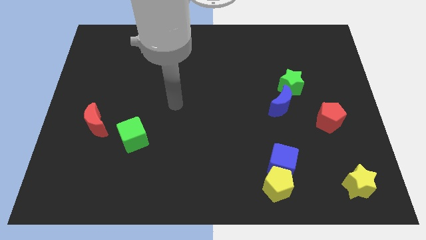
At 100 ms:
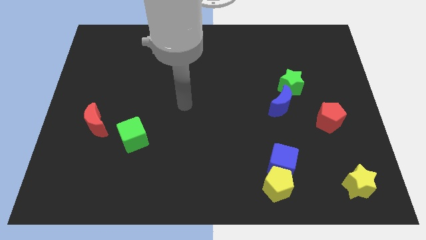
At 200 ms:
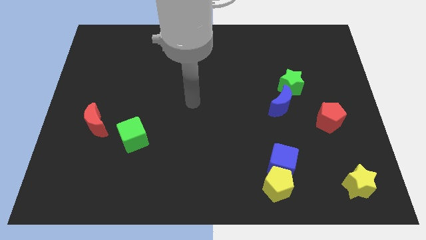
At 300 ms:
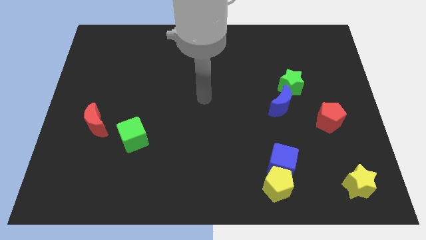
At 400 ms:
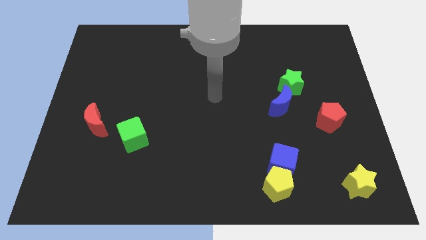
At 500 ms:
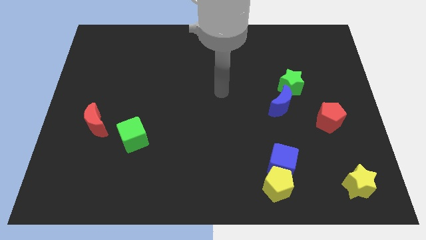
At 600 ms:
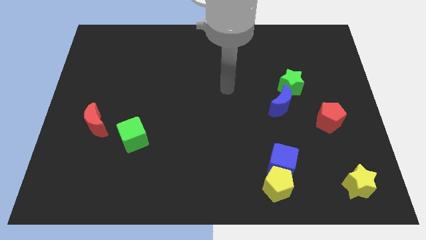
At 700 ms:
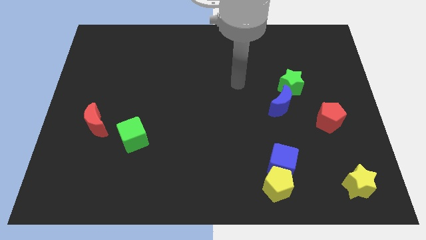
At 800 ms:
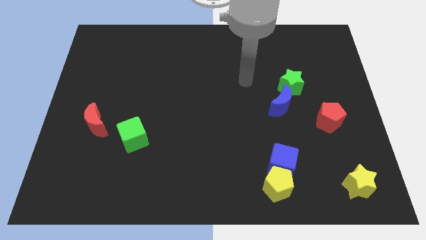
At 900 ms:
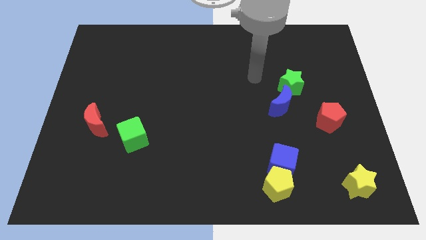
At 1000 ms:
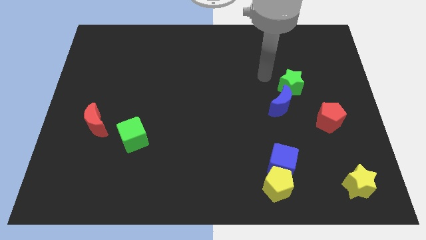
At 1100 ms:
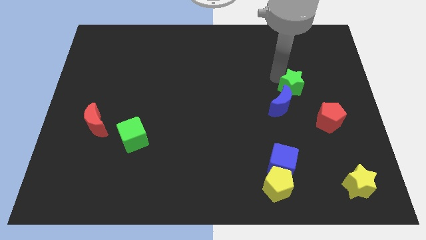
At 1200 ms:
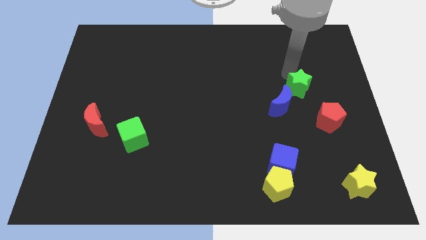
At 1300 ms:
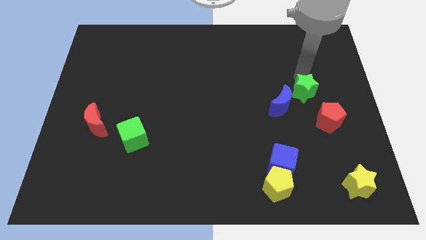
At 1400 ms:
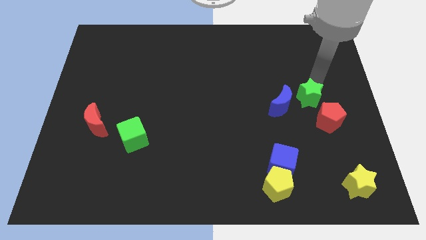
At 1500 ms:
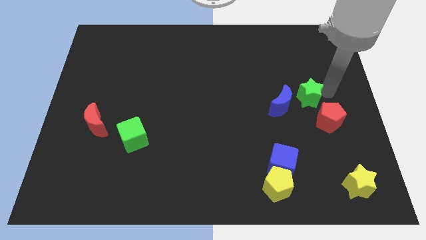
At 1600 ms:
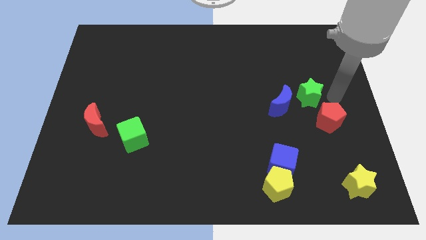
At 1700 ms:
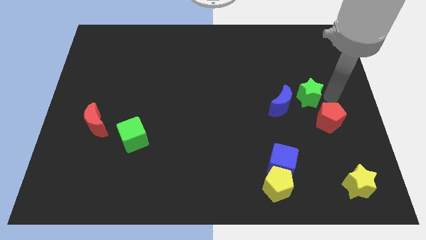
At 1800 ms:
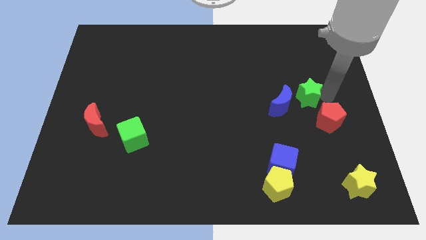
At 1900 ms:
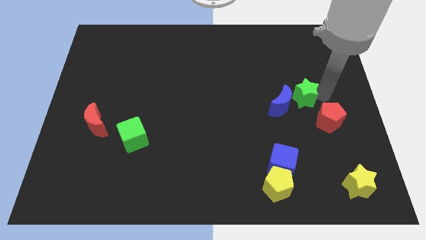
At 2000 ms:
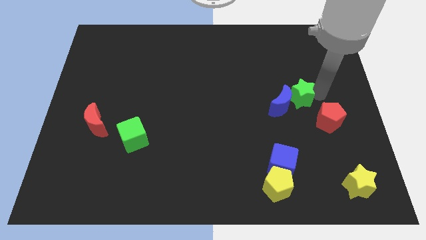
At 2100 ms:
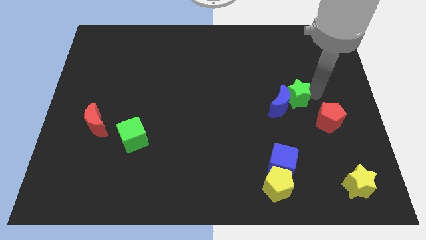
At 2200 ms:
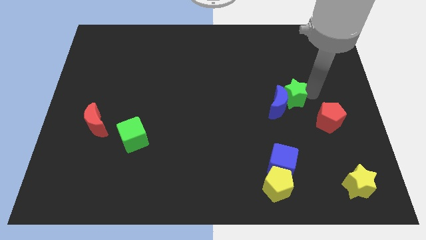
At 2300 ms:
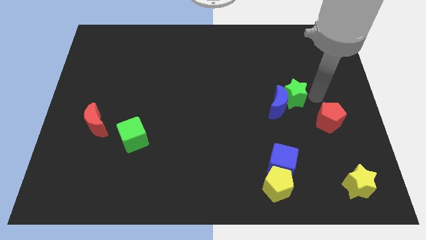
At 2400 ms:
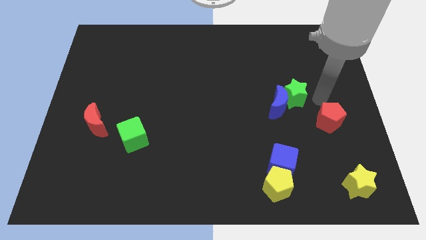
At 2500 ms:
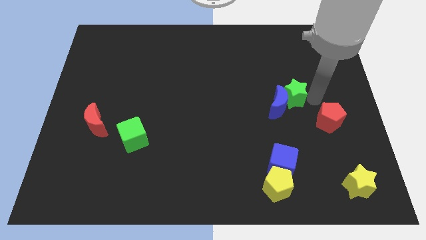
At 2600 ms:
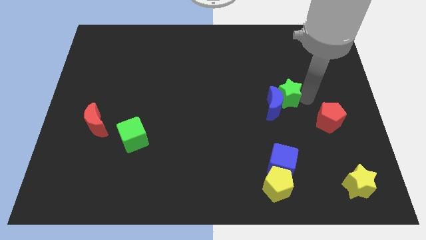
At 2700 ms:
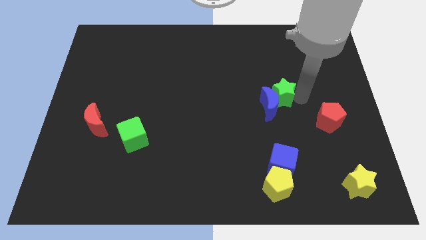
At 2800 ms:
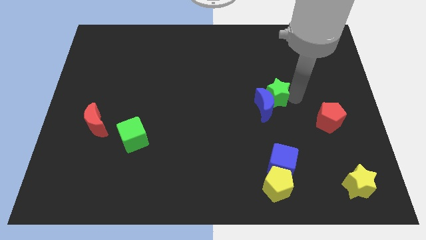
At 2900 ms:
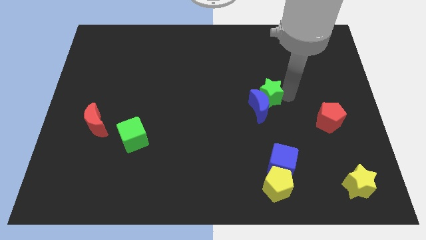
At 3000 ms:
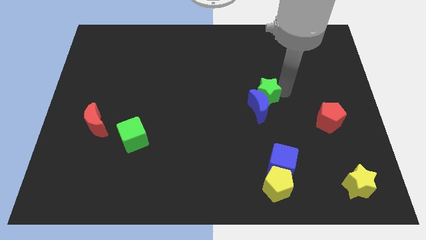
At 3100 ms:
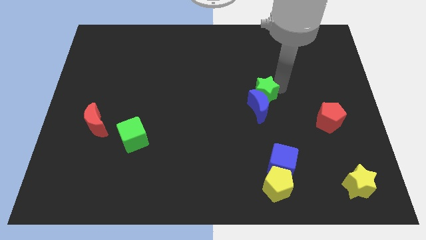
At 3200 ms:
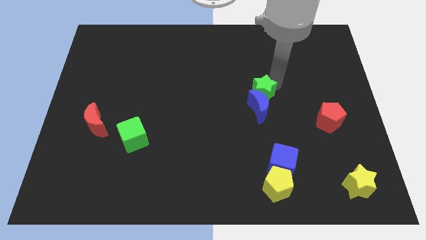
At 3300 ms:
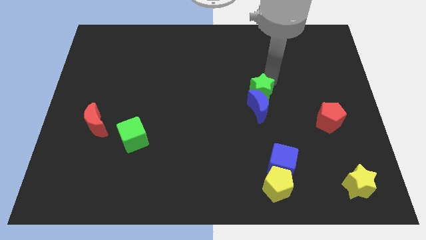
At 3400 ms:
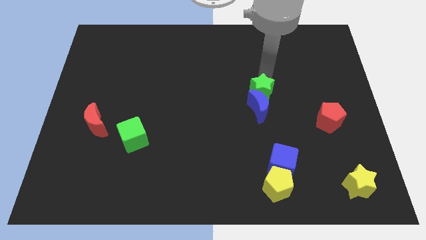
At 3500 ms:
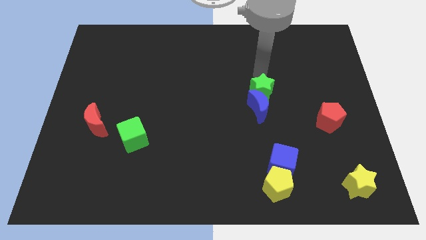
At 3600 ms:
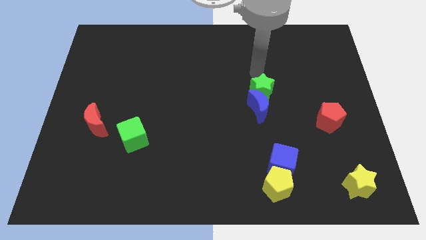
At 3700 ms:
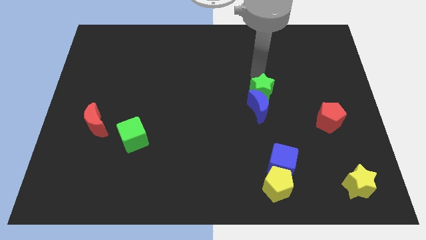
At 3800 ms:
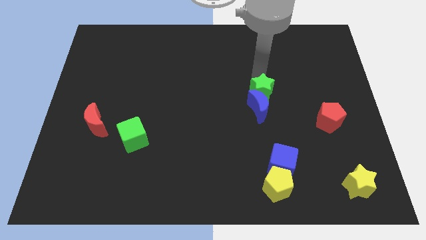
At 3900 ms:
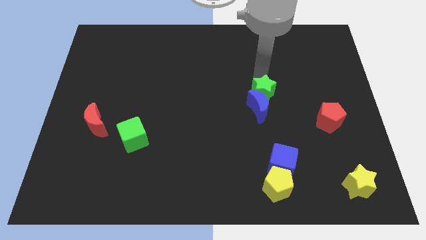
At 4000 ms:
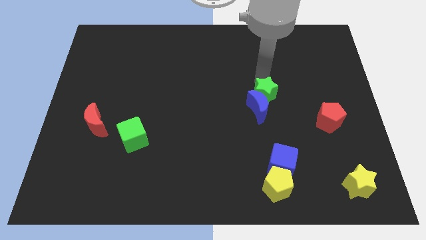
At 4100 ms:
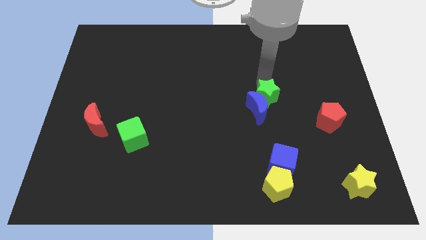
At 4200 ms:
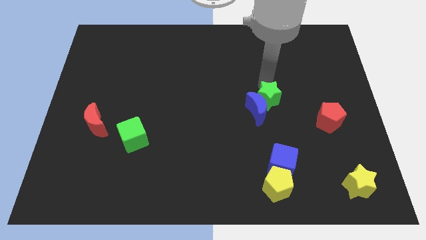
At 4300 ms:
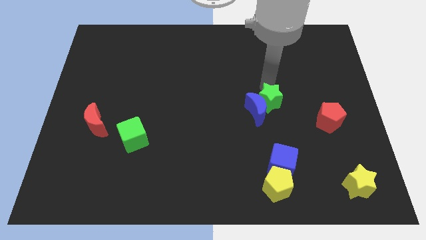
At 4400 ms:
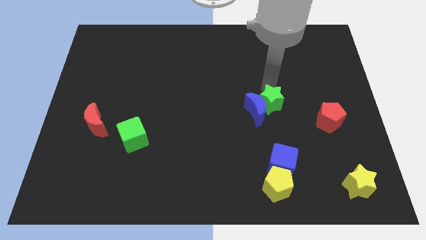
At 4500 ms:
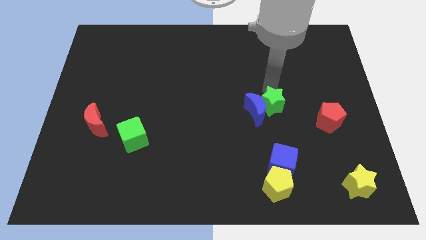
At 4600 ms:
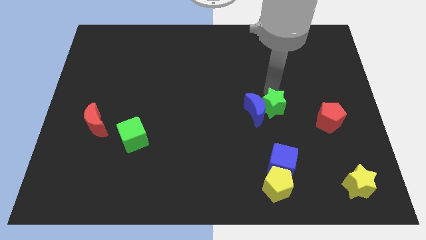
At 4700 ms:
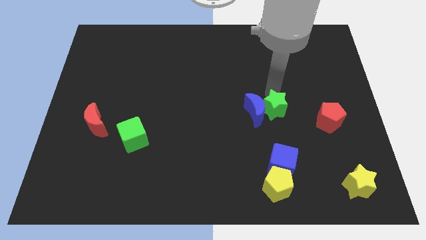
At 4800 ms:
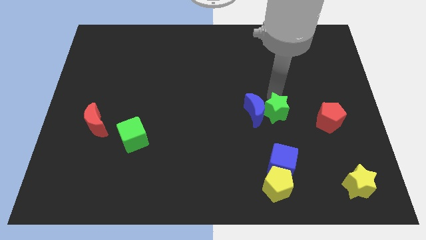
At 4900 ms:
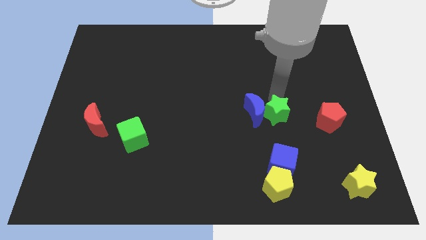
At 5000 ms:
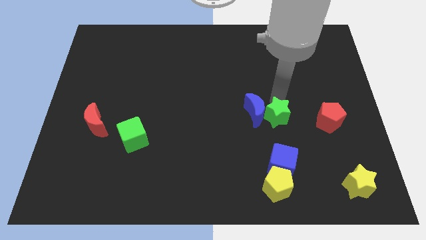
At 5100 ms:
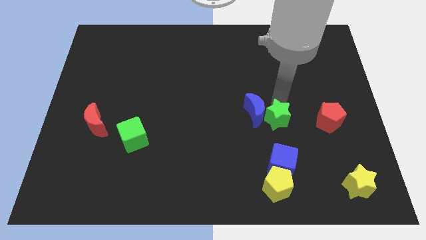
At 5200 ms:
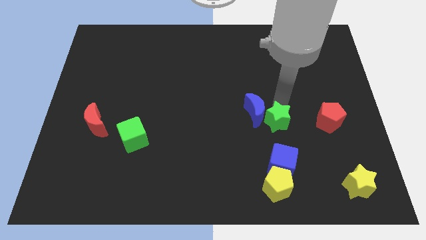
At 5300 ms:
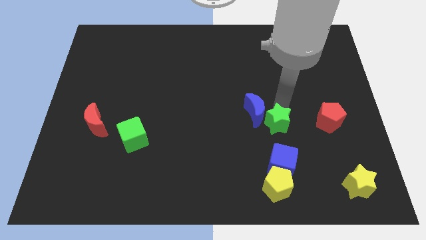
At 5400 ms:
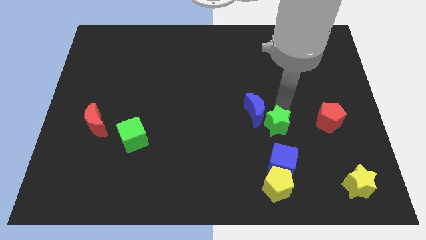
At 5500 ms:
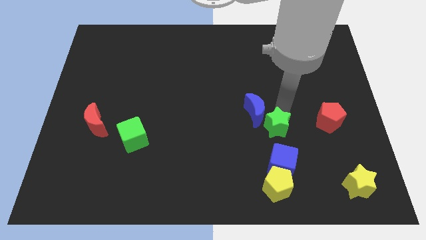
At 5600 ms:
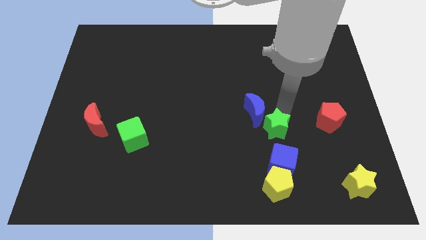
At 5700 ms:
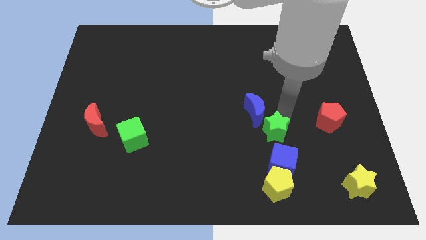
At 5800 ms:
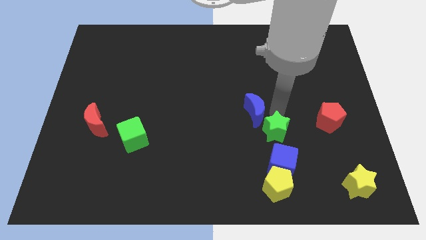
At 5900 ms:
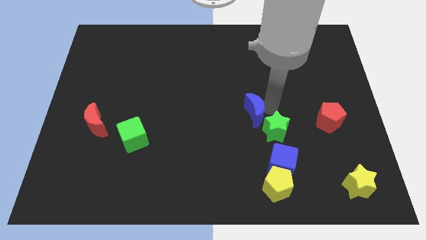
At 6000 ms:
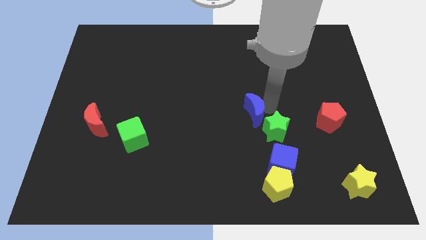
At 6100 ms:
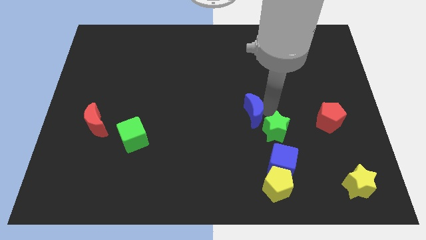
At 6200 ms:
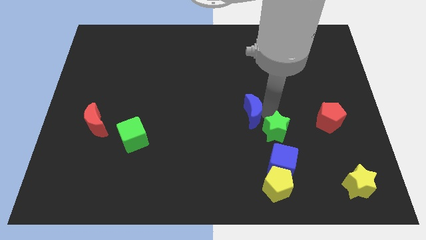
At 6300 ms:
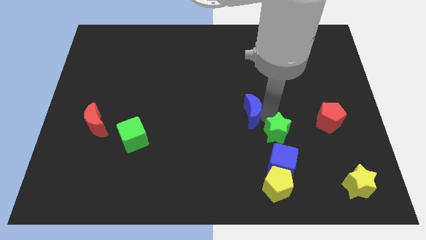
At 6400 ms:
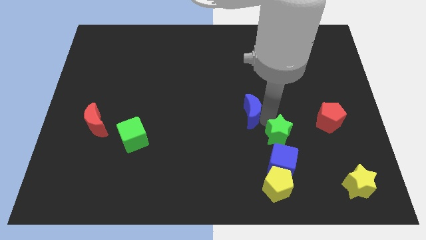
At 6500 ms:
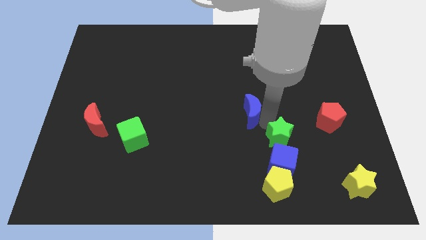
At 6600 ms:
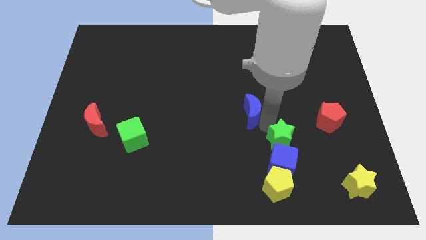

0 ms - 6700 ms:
slide the green star next to the blue cube

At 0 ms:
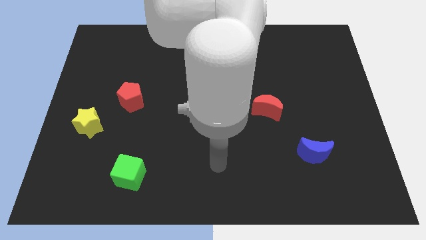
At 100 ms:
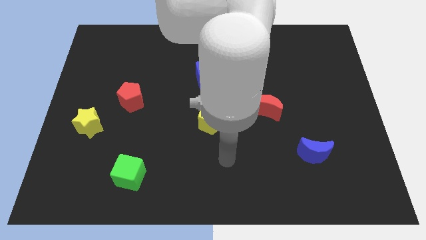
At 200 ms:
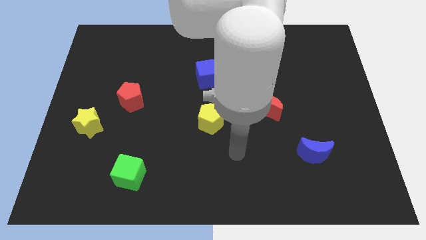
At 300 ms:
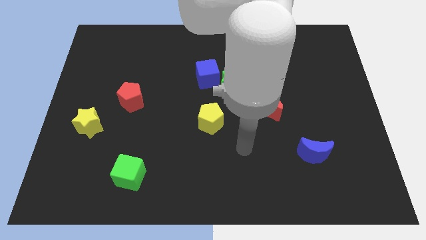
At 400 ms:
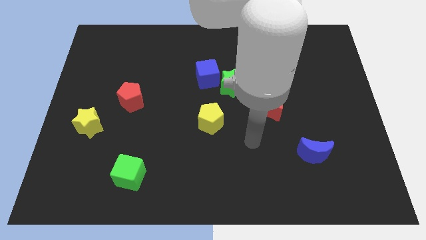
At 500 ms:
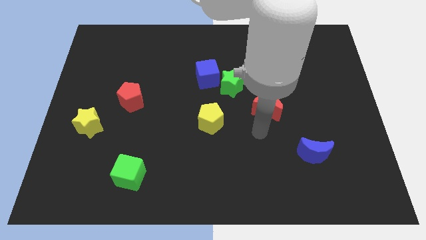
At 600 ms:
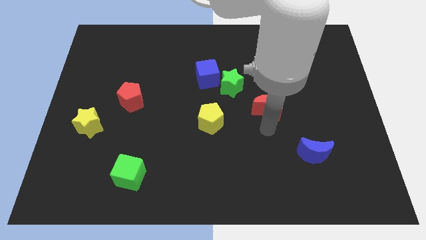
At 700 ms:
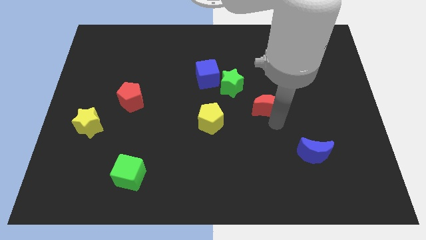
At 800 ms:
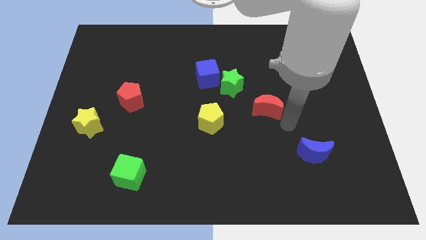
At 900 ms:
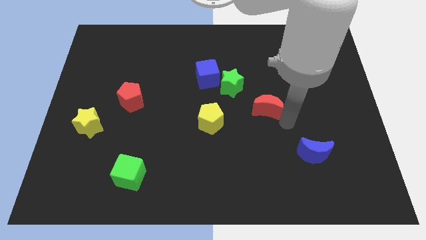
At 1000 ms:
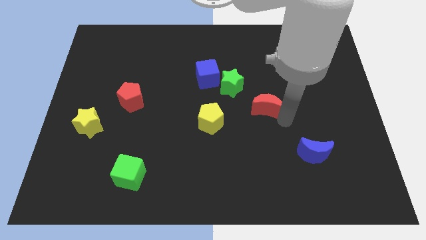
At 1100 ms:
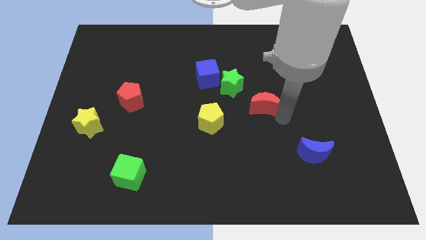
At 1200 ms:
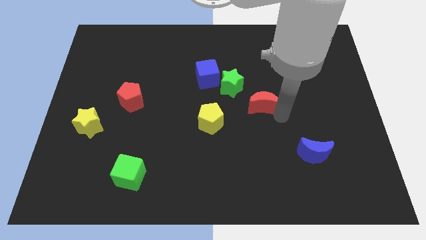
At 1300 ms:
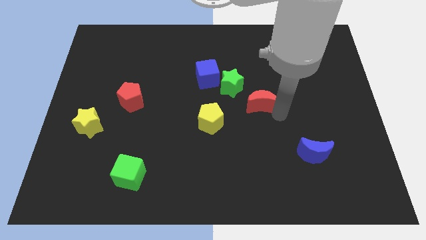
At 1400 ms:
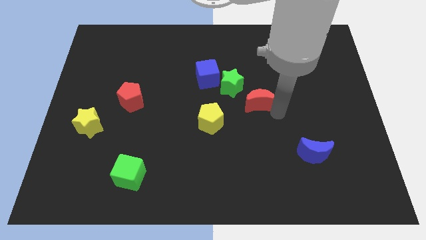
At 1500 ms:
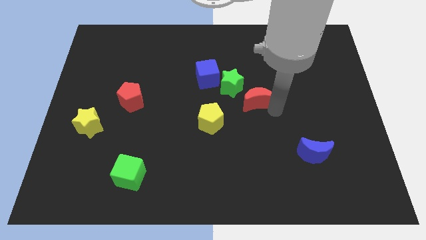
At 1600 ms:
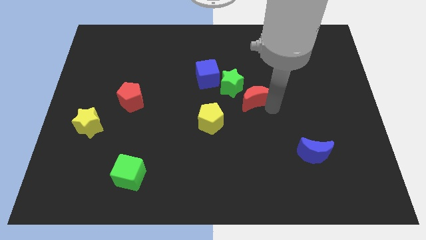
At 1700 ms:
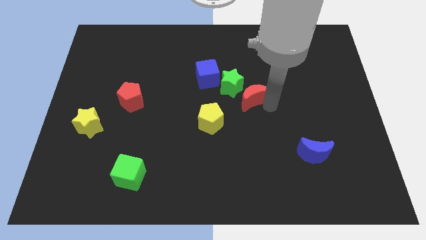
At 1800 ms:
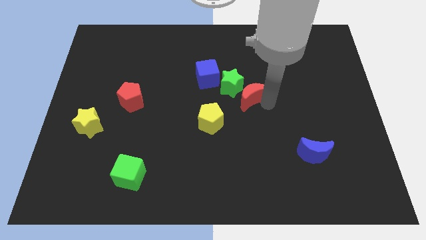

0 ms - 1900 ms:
slide the red moon close to the green star

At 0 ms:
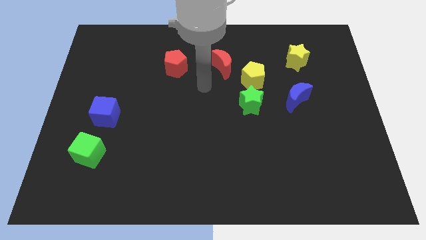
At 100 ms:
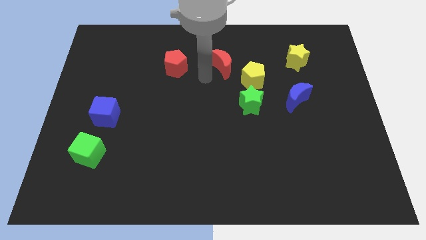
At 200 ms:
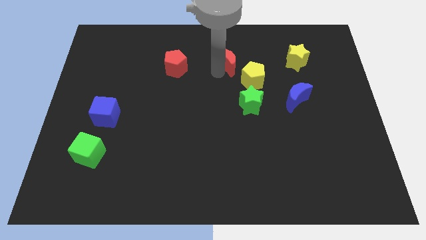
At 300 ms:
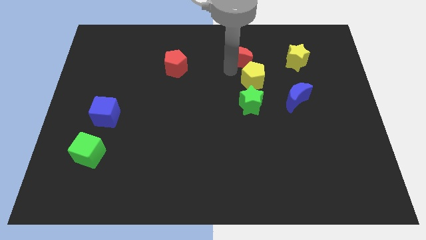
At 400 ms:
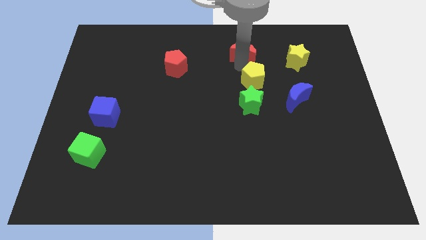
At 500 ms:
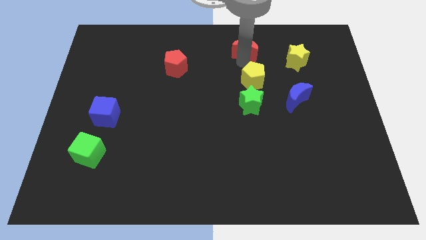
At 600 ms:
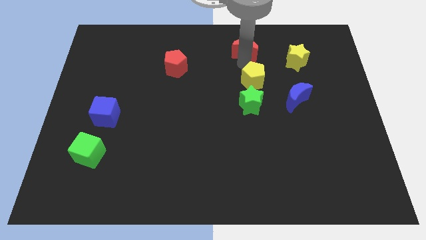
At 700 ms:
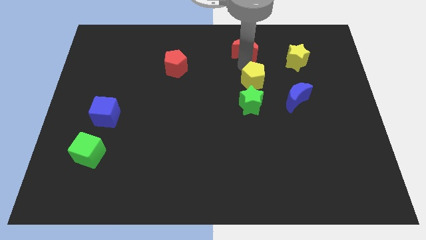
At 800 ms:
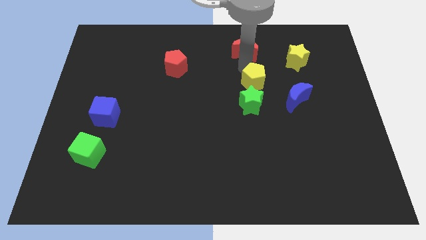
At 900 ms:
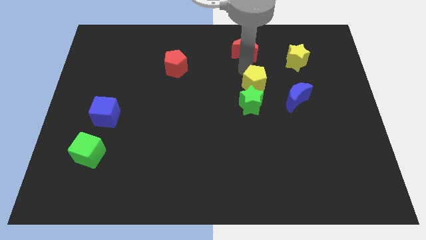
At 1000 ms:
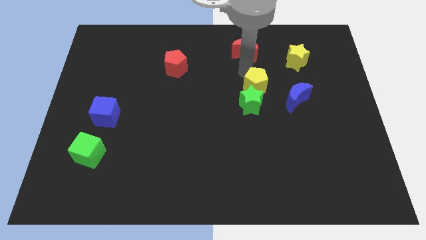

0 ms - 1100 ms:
move the yellow pentagon close to the green star
